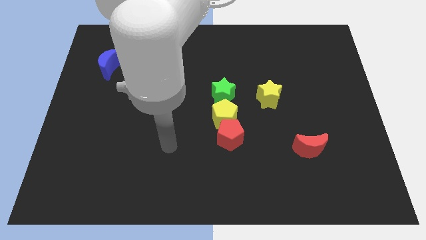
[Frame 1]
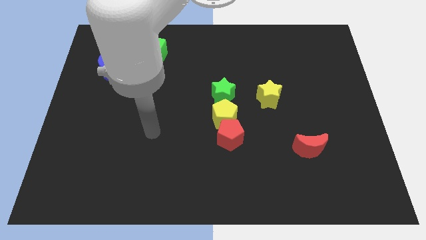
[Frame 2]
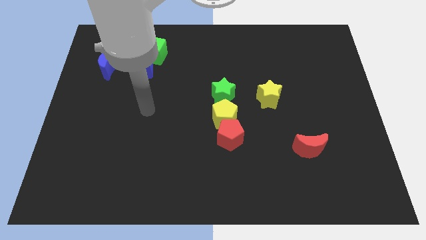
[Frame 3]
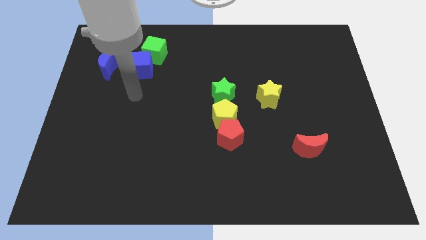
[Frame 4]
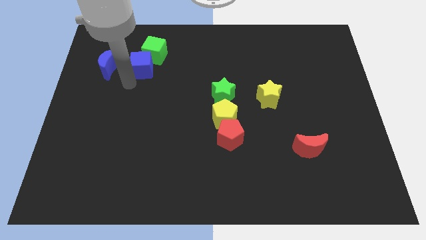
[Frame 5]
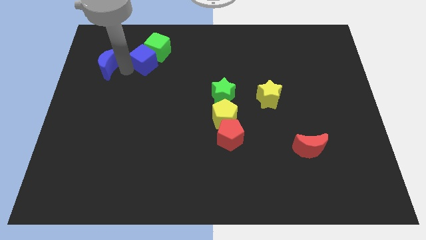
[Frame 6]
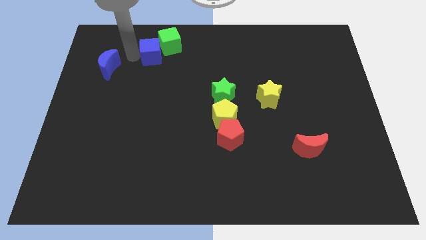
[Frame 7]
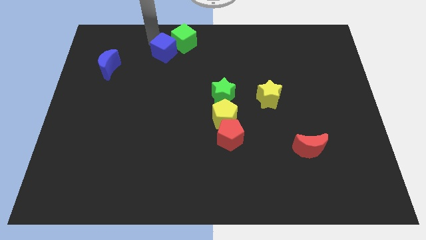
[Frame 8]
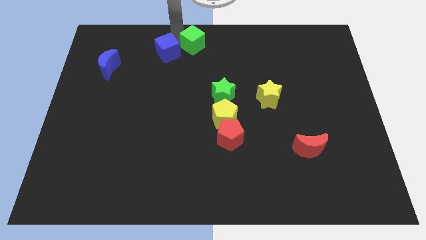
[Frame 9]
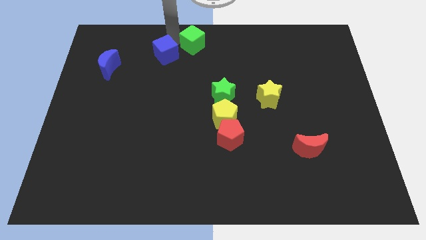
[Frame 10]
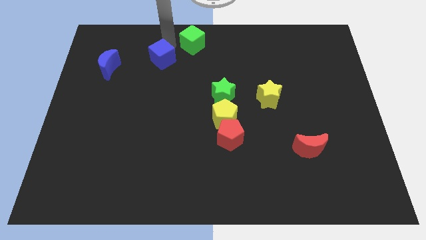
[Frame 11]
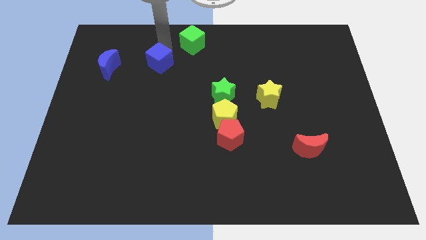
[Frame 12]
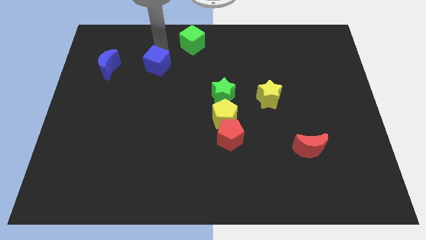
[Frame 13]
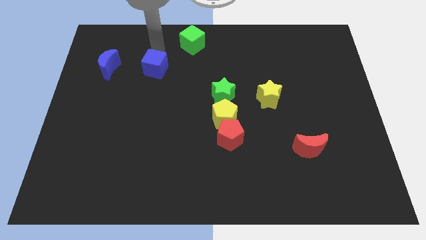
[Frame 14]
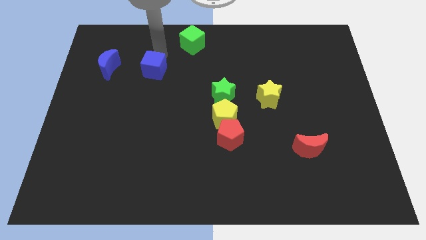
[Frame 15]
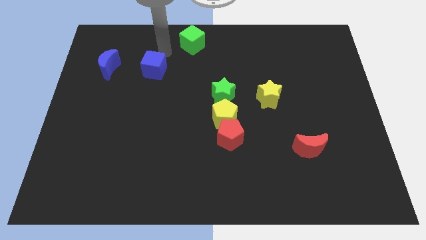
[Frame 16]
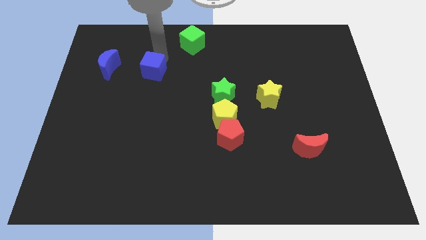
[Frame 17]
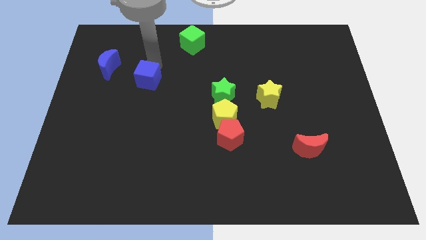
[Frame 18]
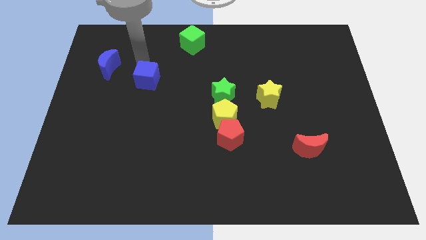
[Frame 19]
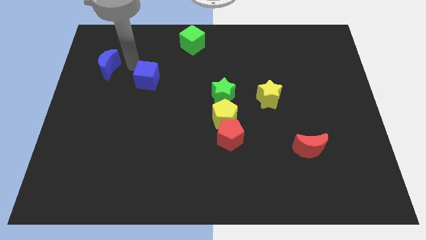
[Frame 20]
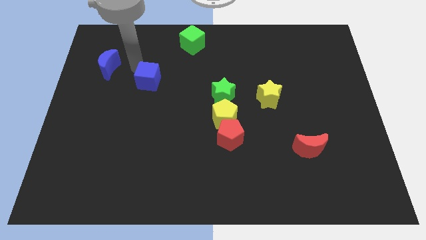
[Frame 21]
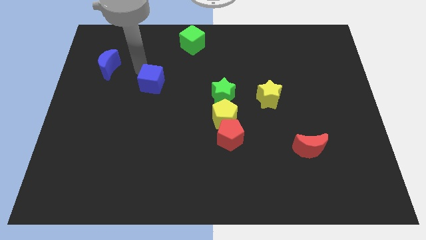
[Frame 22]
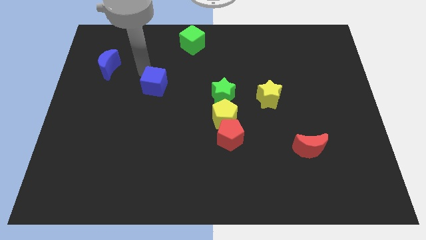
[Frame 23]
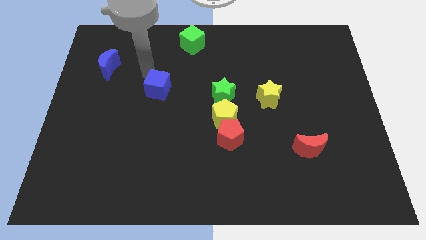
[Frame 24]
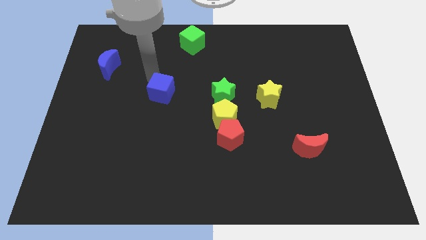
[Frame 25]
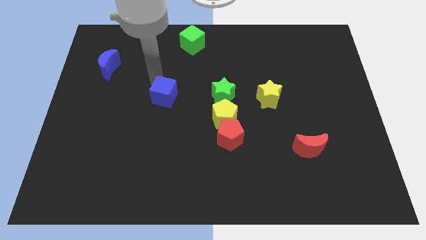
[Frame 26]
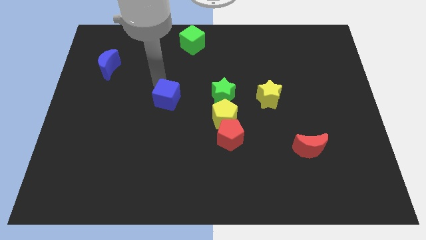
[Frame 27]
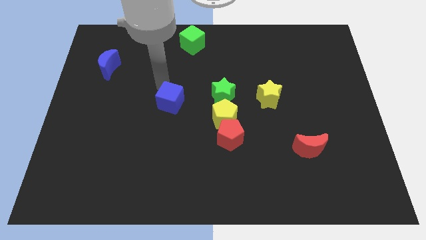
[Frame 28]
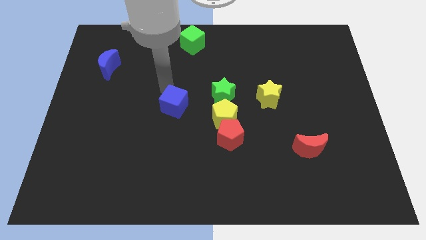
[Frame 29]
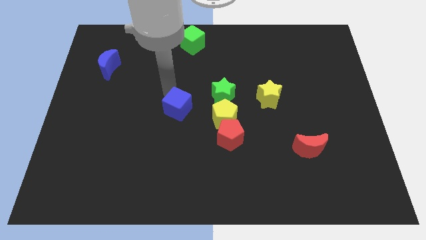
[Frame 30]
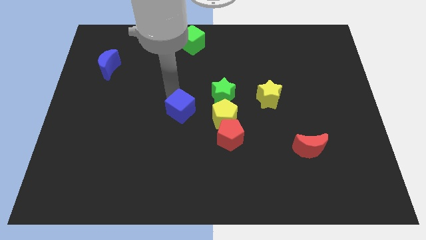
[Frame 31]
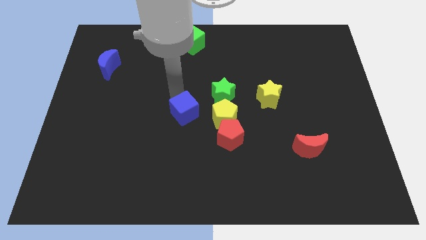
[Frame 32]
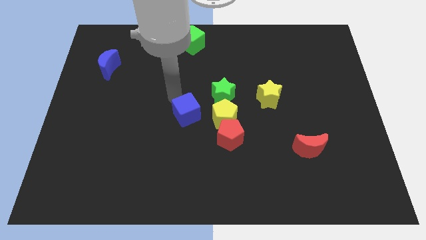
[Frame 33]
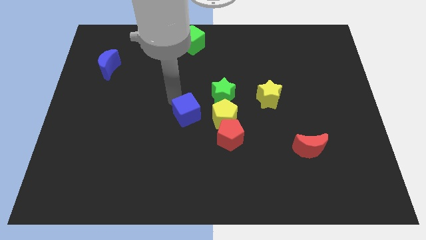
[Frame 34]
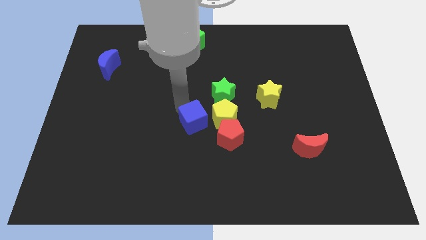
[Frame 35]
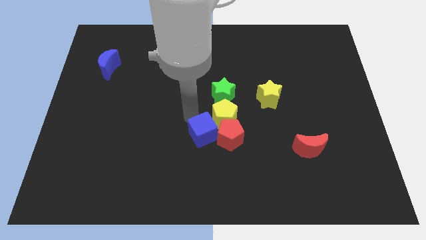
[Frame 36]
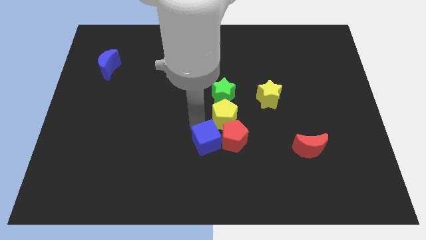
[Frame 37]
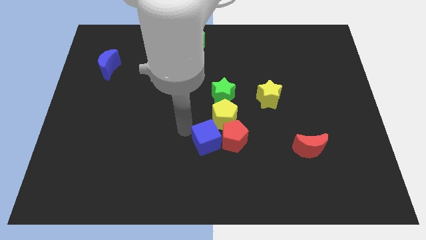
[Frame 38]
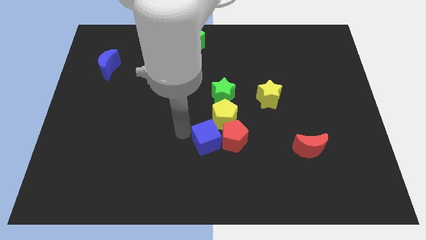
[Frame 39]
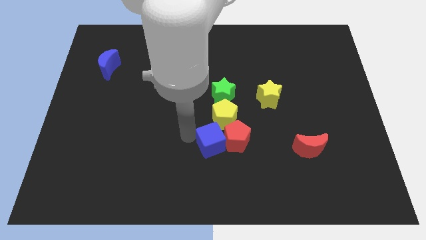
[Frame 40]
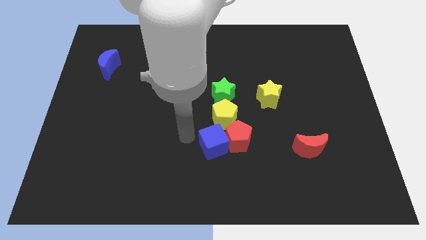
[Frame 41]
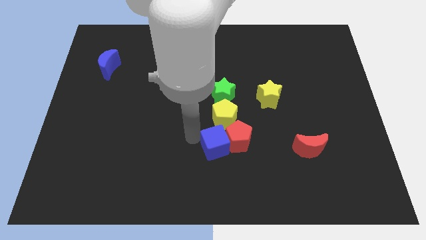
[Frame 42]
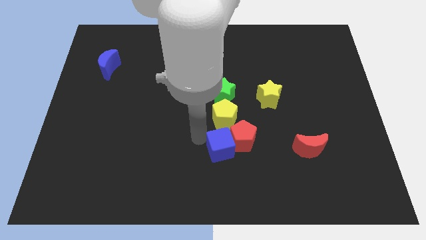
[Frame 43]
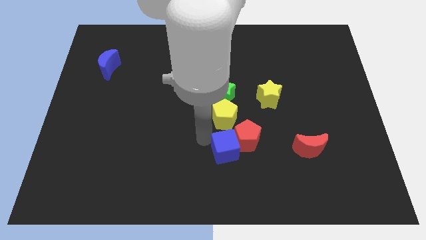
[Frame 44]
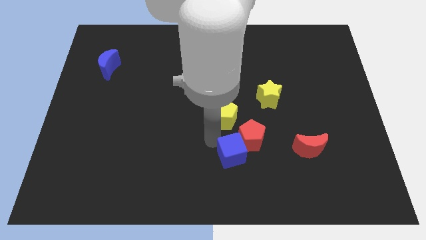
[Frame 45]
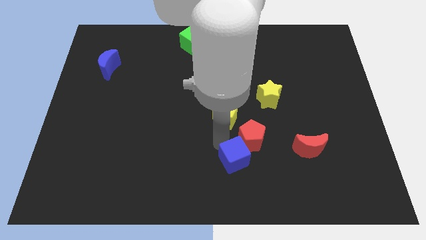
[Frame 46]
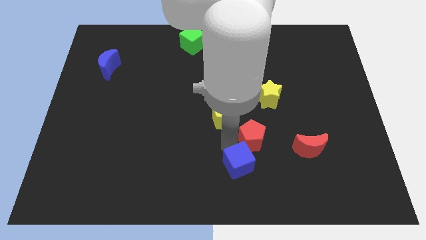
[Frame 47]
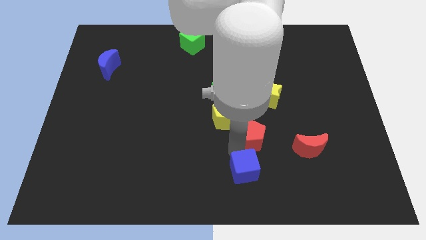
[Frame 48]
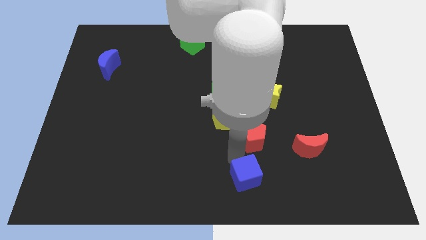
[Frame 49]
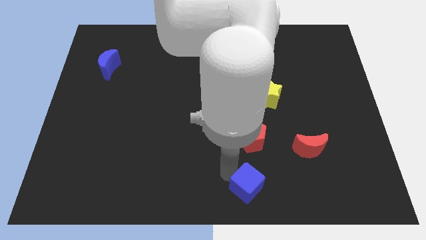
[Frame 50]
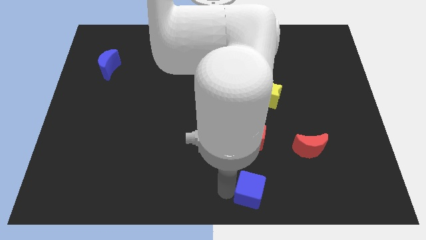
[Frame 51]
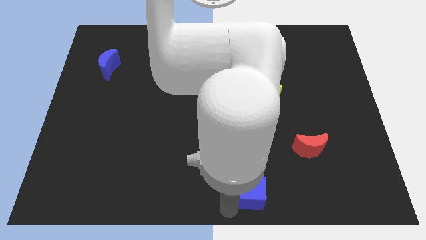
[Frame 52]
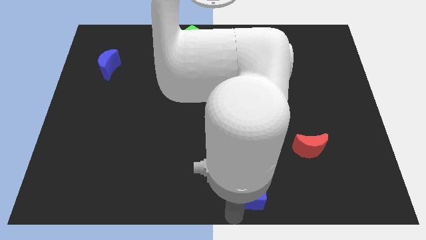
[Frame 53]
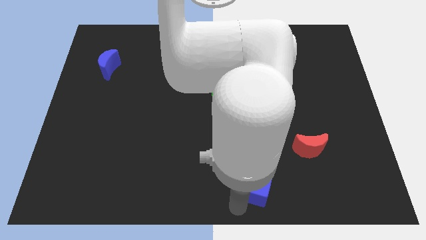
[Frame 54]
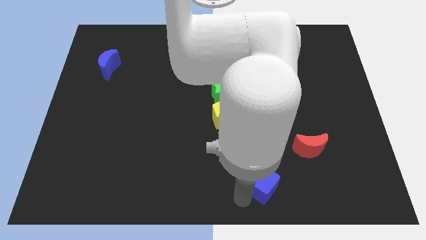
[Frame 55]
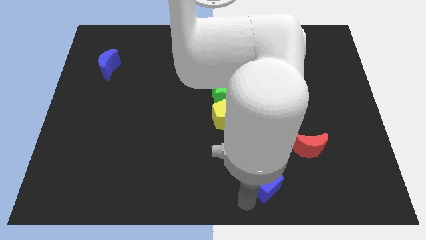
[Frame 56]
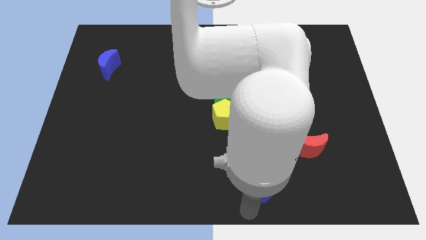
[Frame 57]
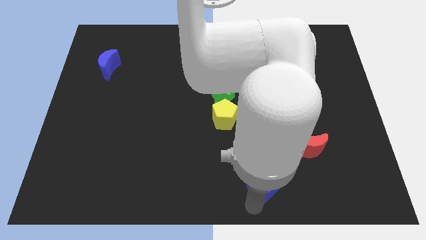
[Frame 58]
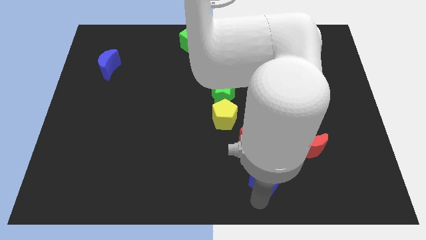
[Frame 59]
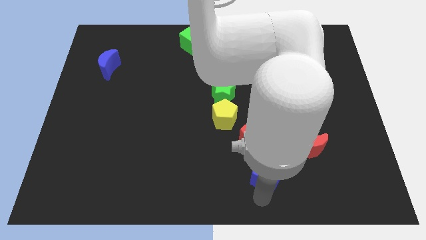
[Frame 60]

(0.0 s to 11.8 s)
move the blue cube to the bottom right of the red pentagon
